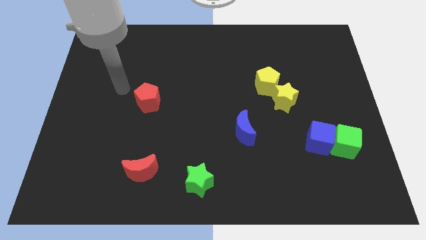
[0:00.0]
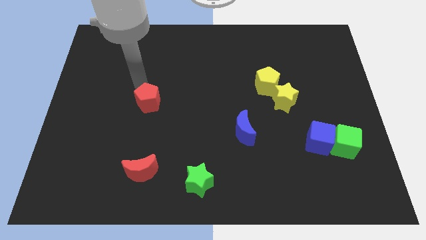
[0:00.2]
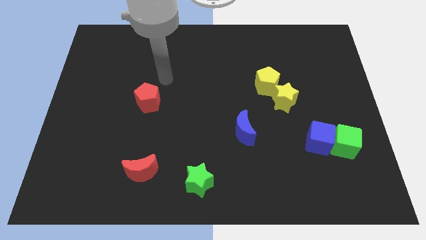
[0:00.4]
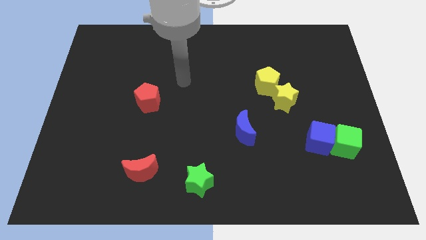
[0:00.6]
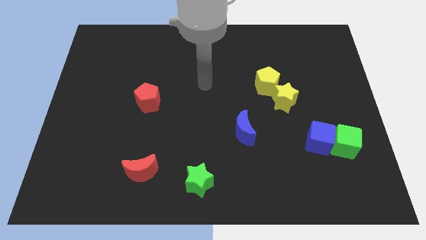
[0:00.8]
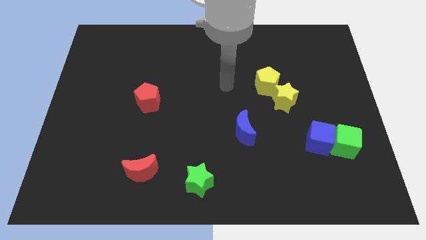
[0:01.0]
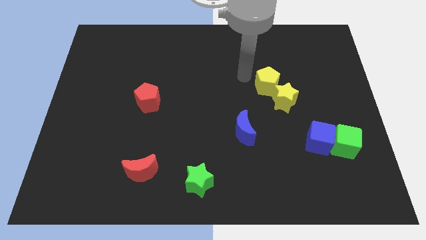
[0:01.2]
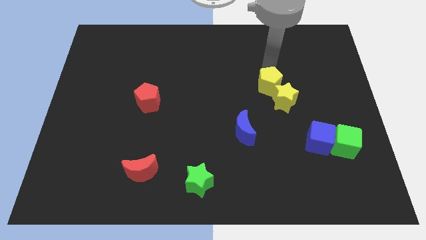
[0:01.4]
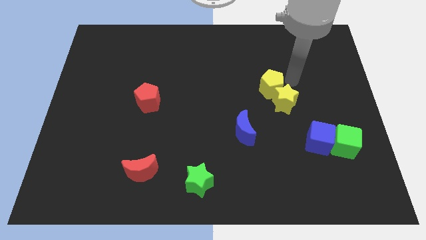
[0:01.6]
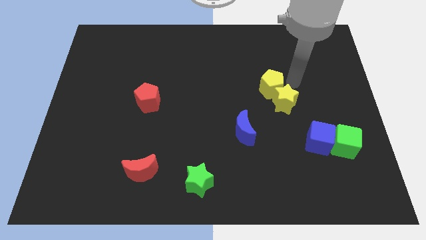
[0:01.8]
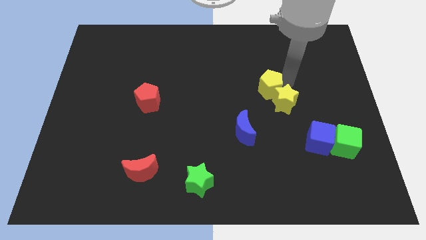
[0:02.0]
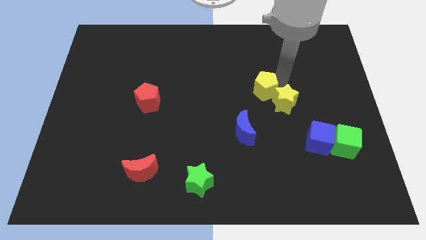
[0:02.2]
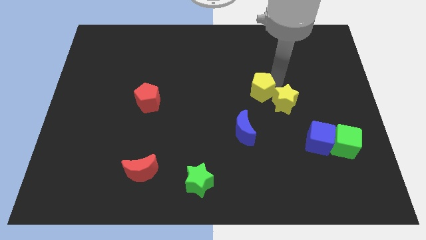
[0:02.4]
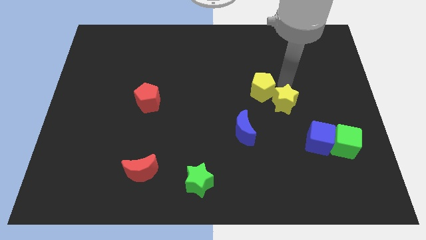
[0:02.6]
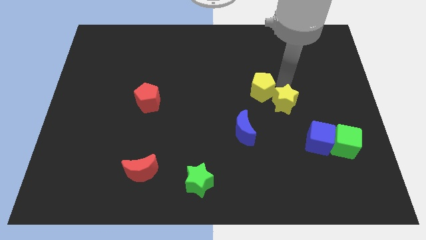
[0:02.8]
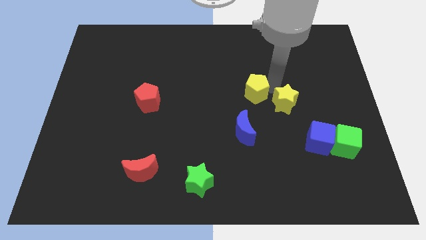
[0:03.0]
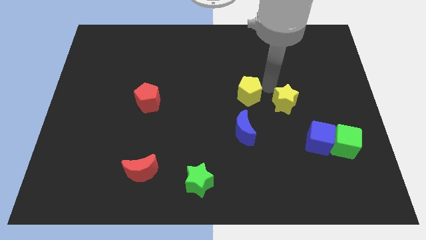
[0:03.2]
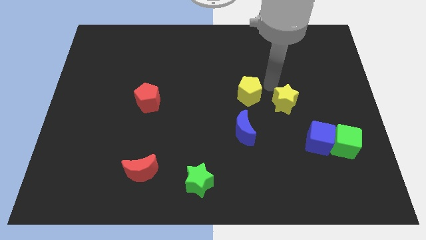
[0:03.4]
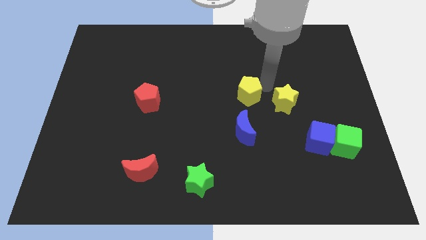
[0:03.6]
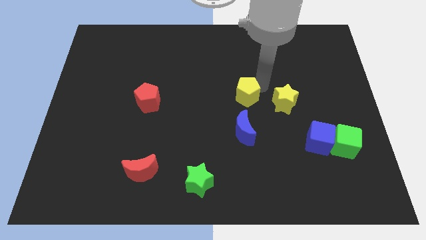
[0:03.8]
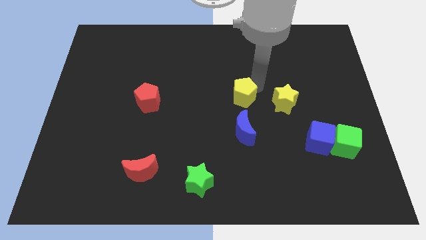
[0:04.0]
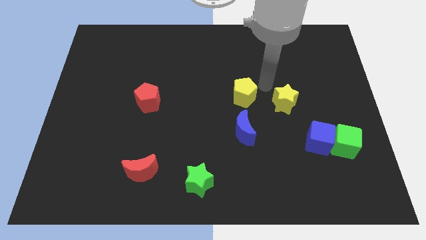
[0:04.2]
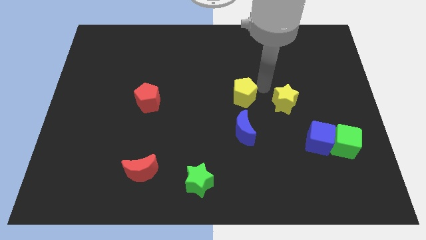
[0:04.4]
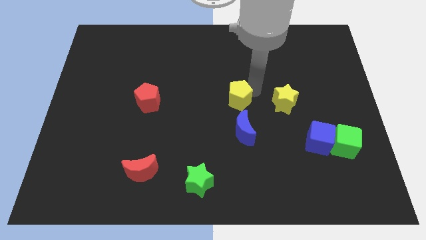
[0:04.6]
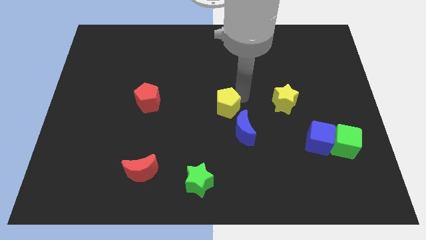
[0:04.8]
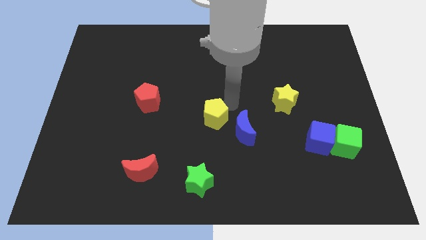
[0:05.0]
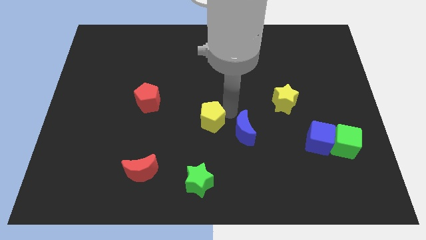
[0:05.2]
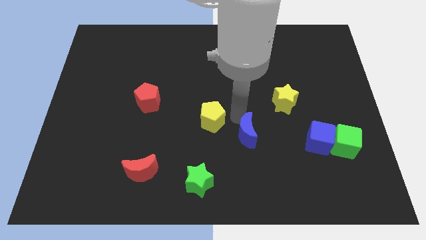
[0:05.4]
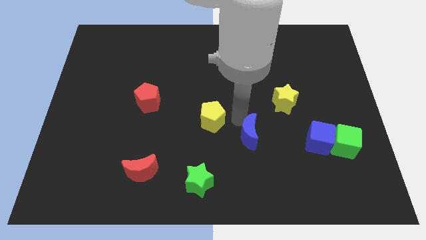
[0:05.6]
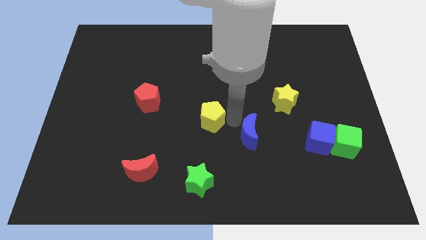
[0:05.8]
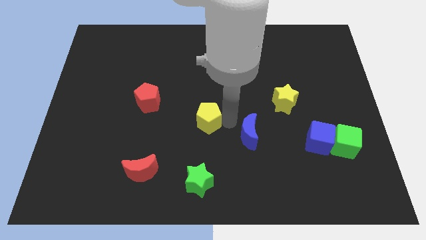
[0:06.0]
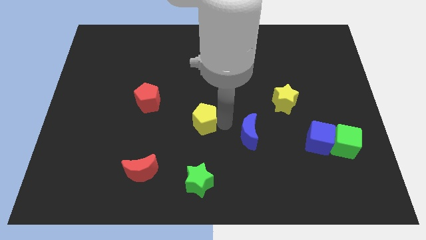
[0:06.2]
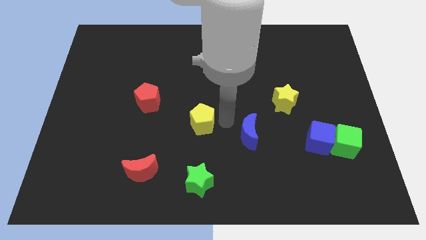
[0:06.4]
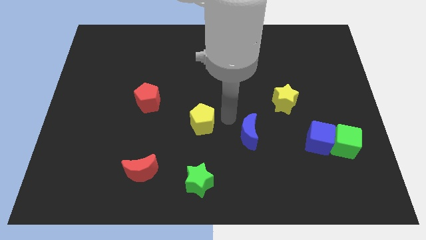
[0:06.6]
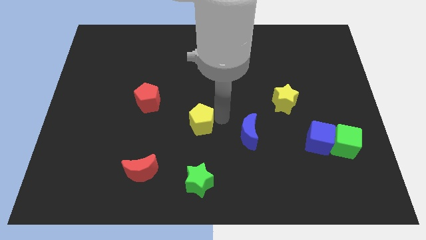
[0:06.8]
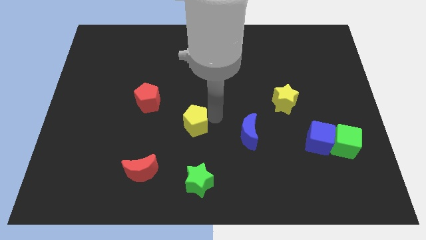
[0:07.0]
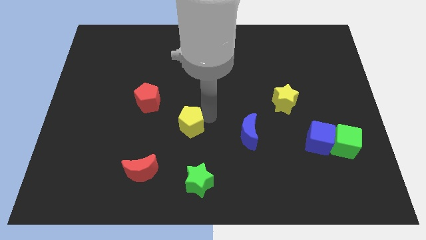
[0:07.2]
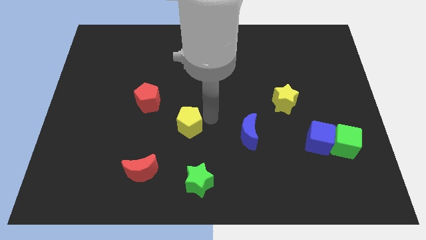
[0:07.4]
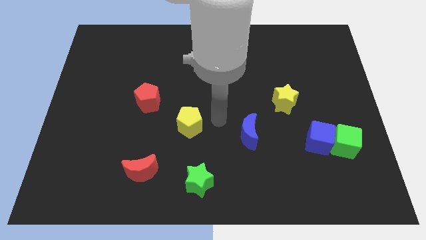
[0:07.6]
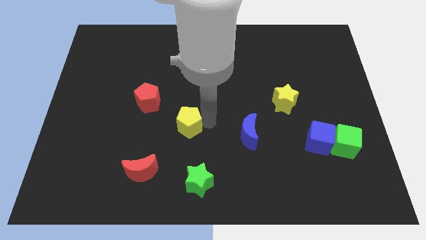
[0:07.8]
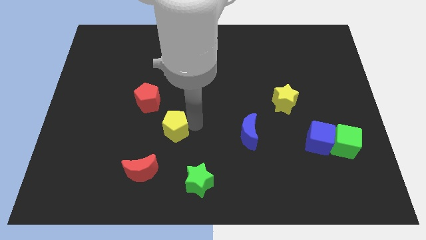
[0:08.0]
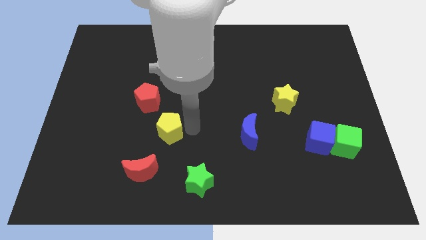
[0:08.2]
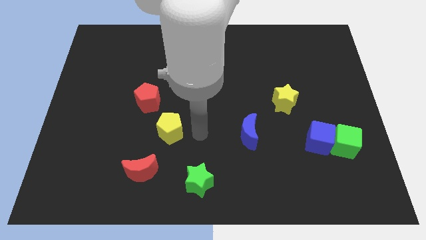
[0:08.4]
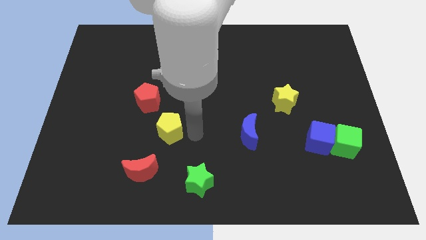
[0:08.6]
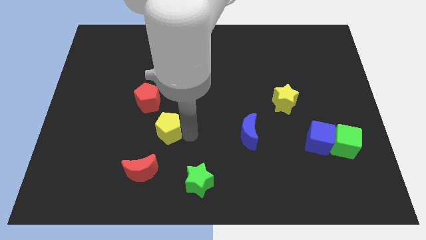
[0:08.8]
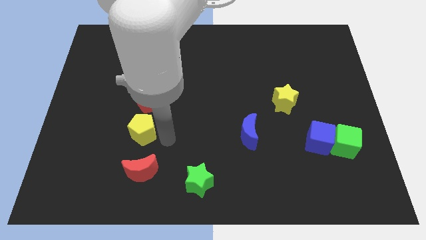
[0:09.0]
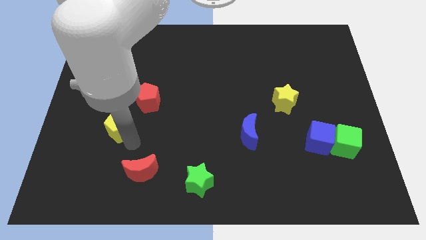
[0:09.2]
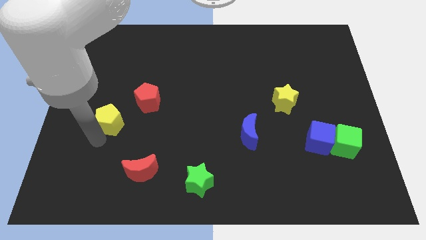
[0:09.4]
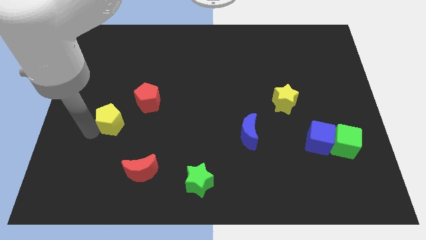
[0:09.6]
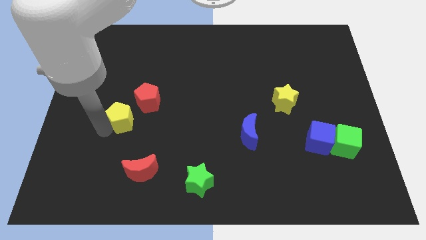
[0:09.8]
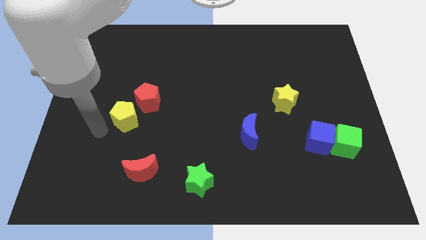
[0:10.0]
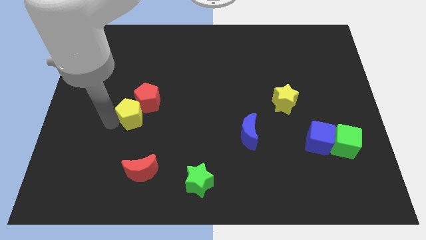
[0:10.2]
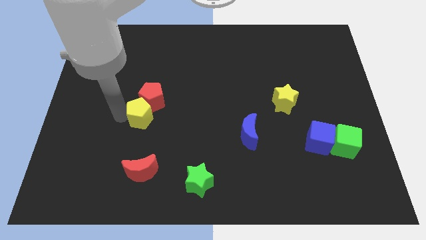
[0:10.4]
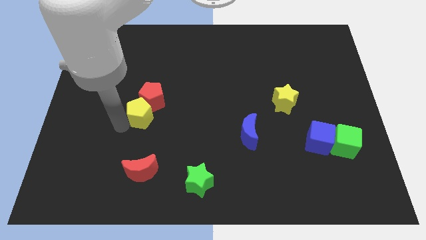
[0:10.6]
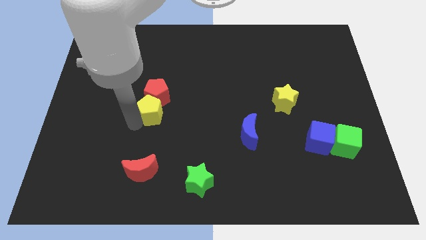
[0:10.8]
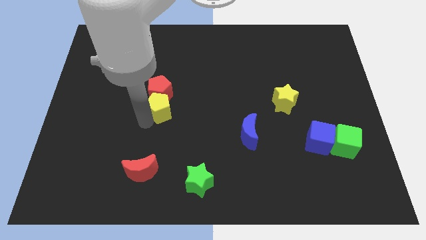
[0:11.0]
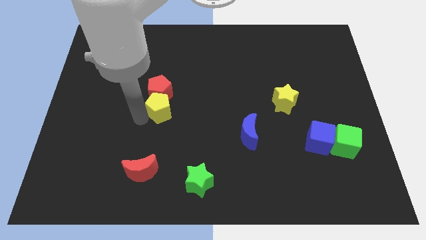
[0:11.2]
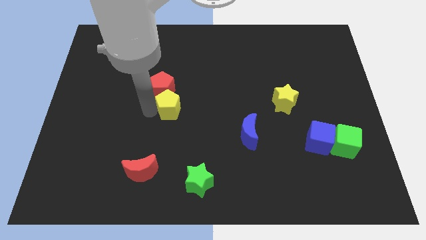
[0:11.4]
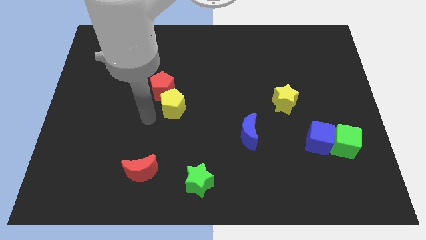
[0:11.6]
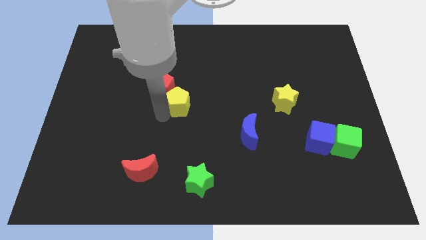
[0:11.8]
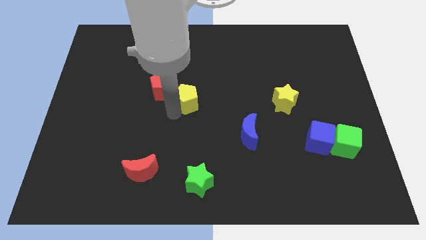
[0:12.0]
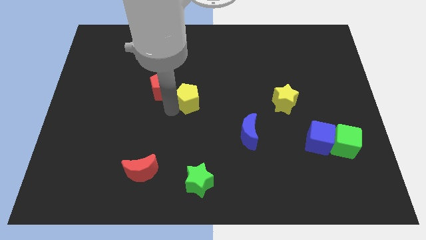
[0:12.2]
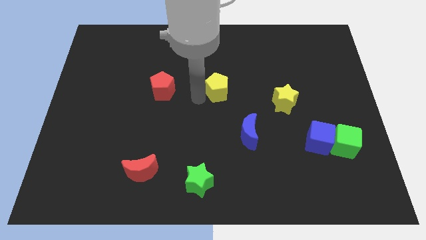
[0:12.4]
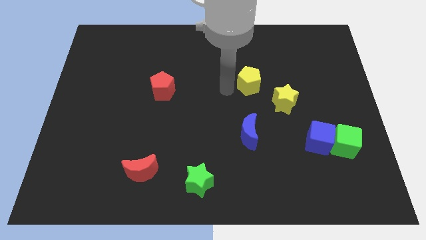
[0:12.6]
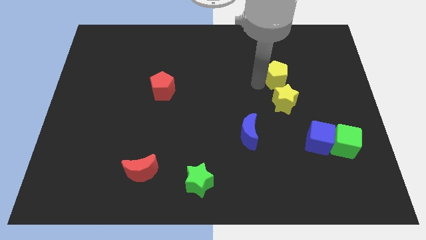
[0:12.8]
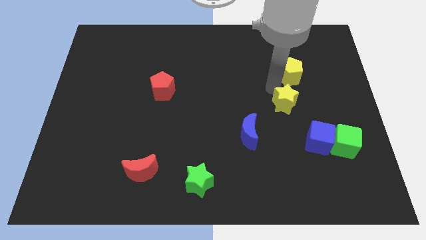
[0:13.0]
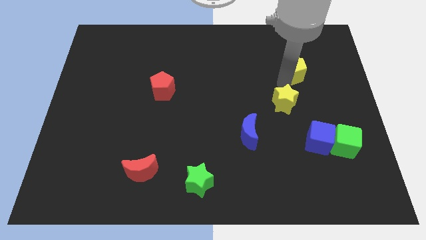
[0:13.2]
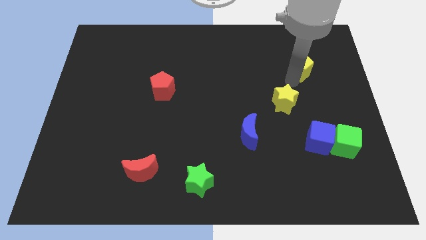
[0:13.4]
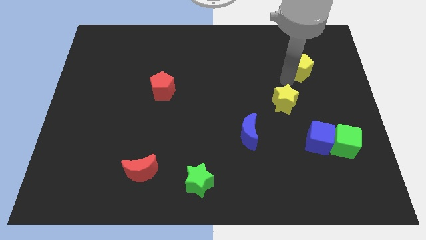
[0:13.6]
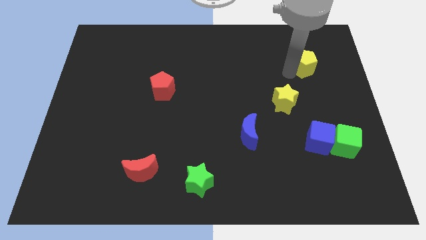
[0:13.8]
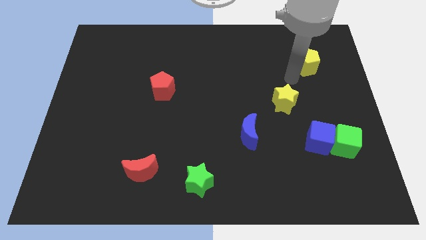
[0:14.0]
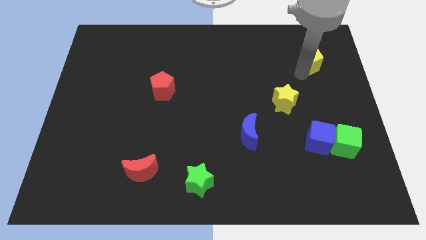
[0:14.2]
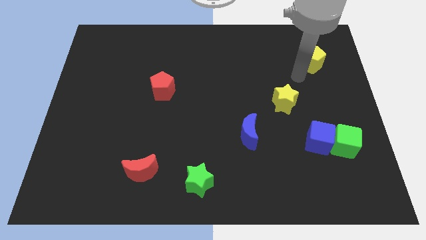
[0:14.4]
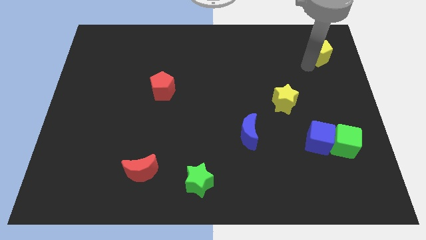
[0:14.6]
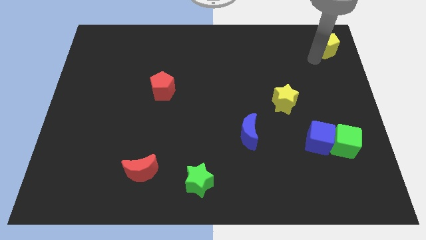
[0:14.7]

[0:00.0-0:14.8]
slide the yellow pentagon to the top right
